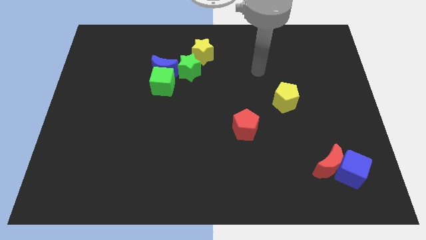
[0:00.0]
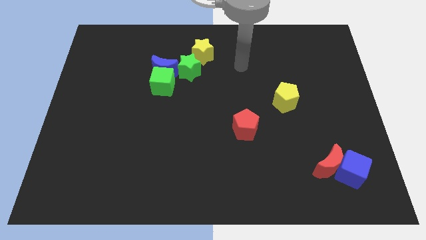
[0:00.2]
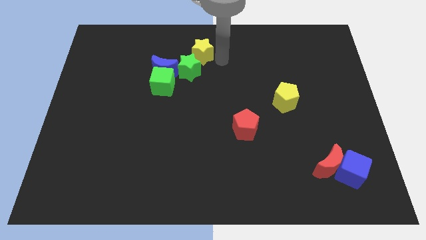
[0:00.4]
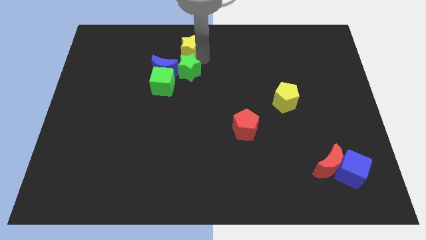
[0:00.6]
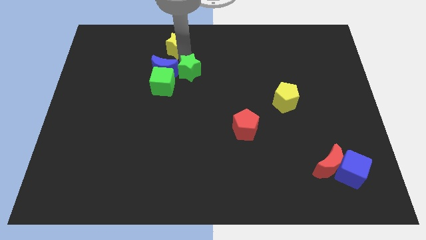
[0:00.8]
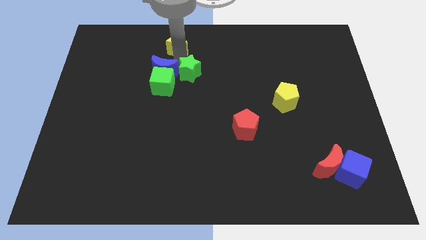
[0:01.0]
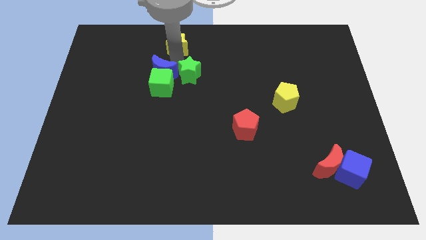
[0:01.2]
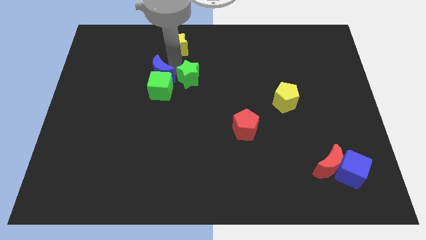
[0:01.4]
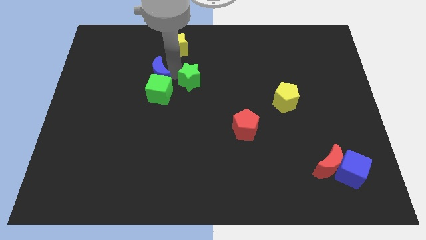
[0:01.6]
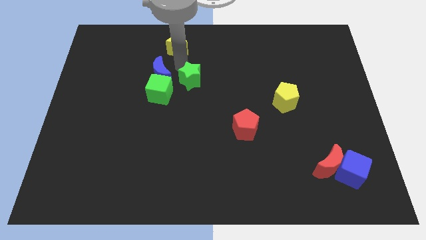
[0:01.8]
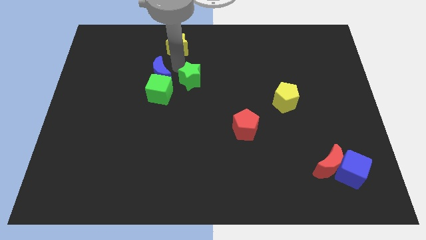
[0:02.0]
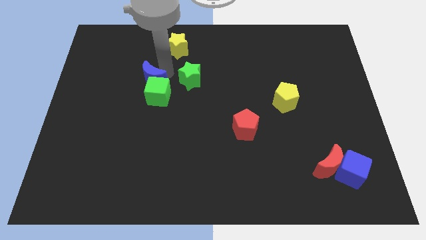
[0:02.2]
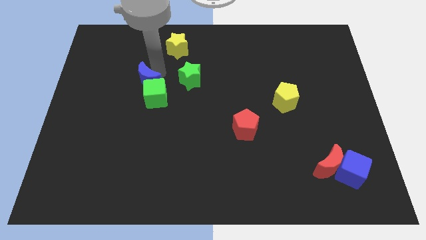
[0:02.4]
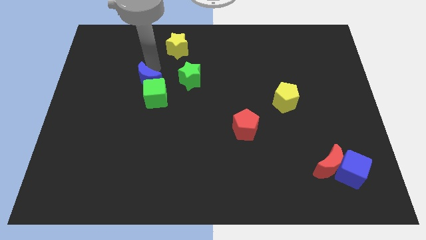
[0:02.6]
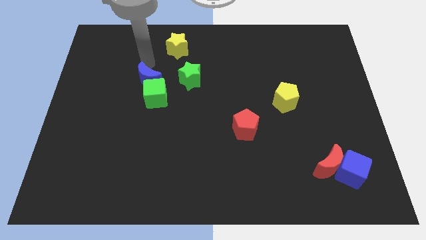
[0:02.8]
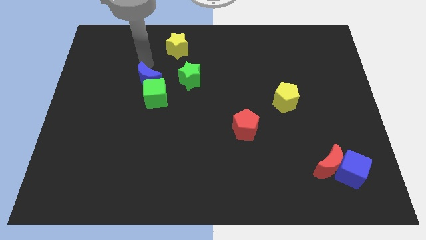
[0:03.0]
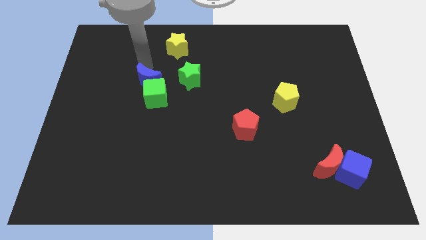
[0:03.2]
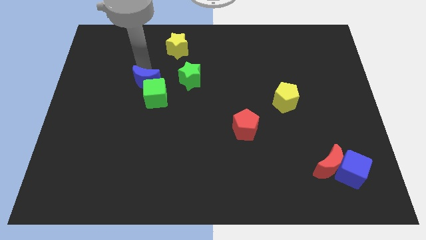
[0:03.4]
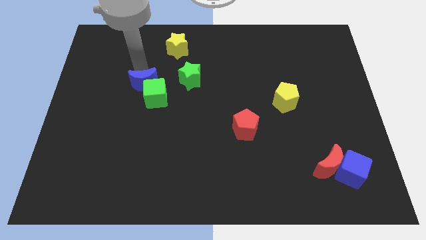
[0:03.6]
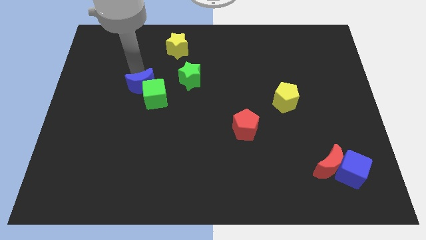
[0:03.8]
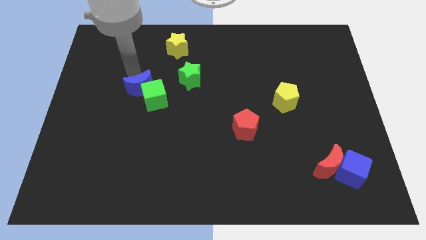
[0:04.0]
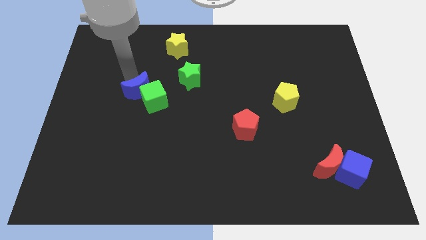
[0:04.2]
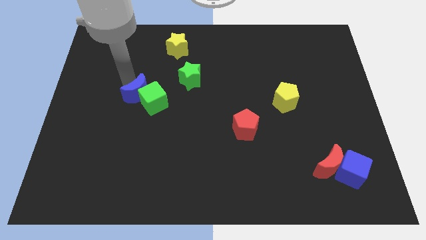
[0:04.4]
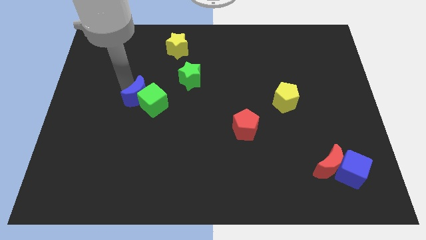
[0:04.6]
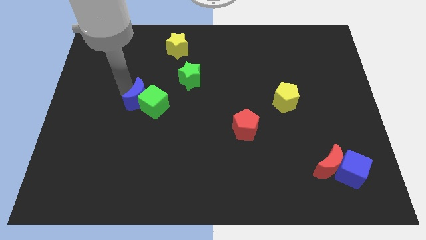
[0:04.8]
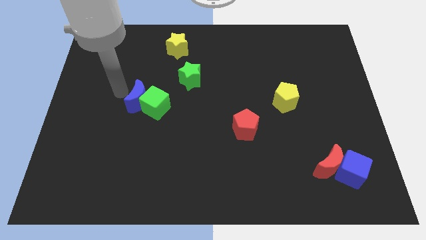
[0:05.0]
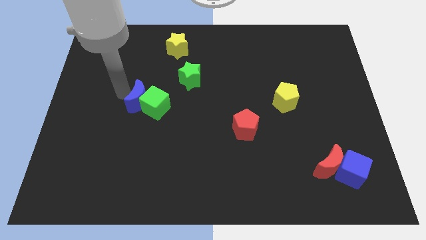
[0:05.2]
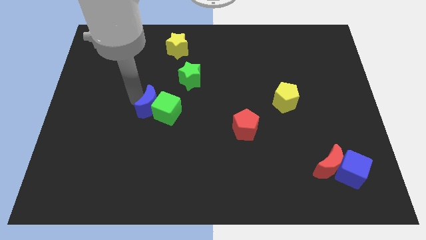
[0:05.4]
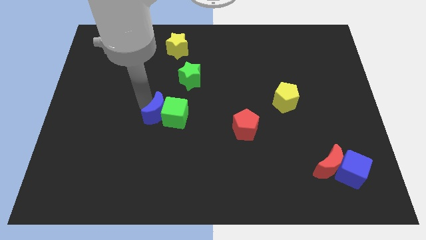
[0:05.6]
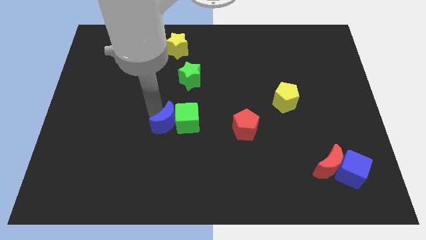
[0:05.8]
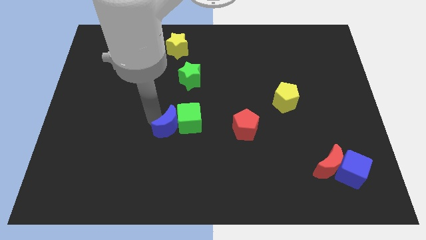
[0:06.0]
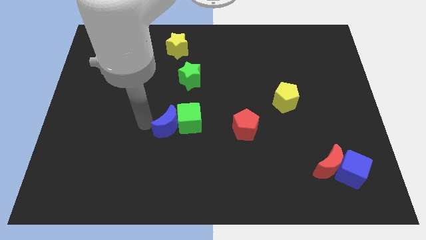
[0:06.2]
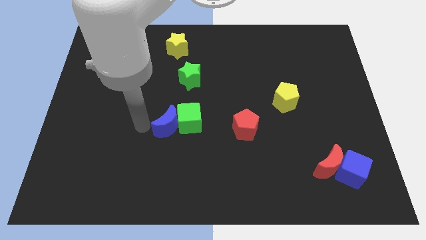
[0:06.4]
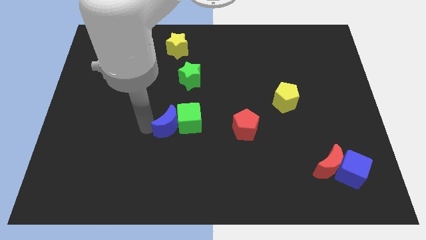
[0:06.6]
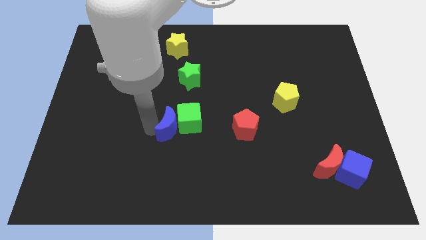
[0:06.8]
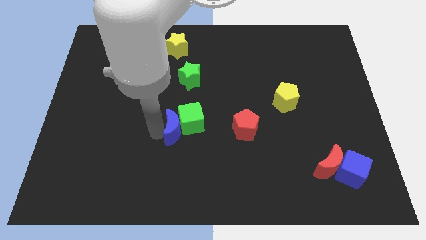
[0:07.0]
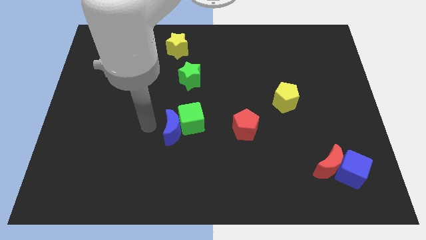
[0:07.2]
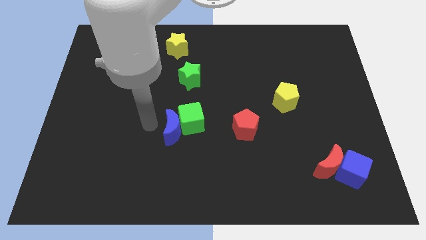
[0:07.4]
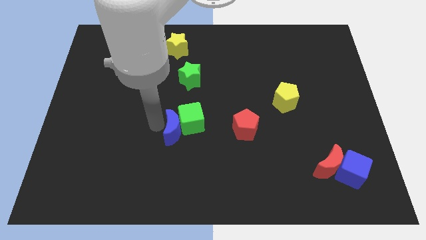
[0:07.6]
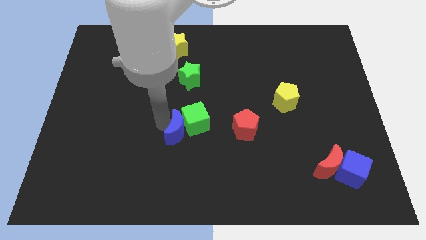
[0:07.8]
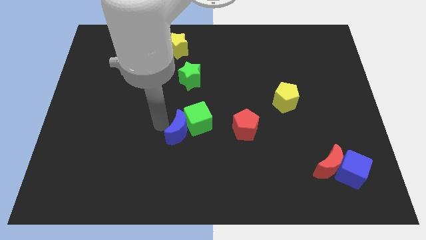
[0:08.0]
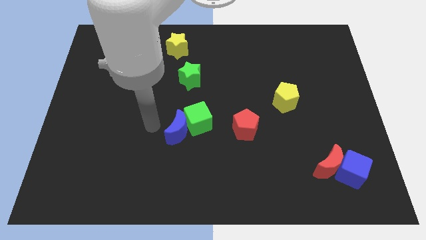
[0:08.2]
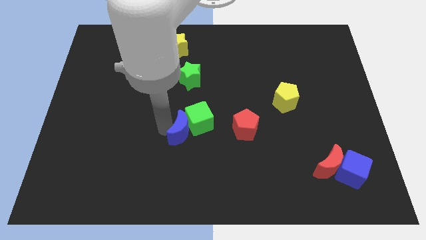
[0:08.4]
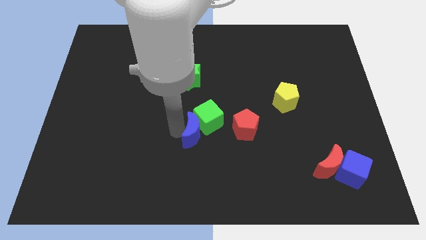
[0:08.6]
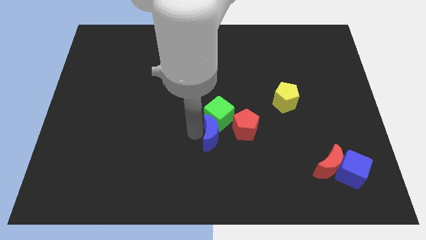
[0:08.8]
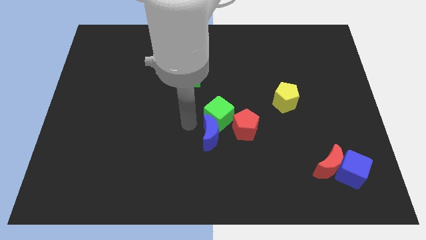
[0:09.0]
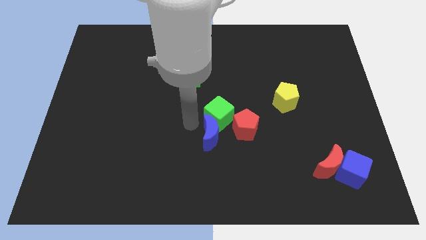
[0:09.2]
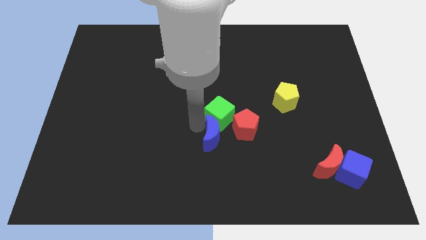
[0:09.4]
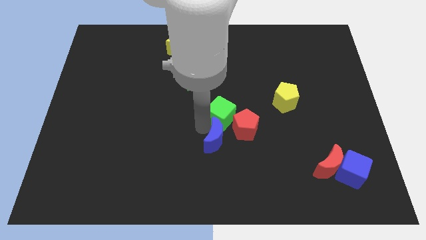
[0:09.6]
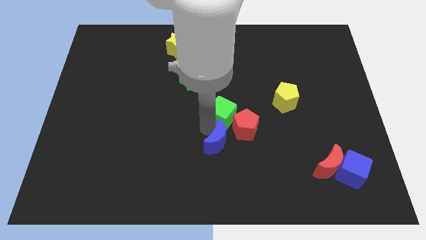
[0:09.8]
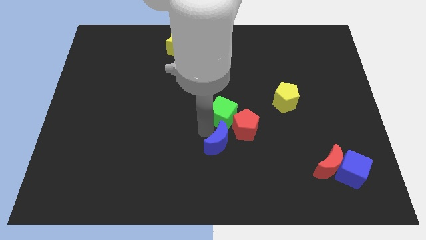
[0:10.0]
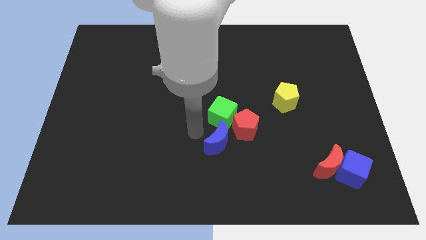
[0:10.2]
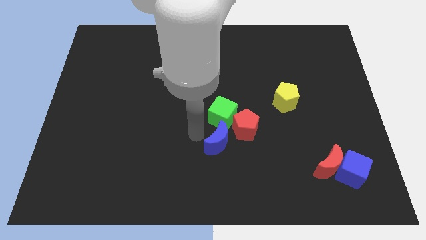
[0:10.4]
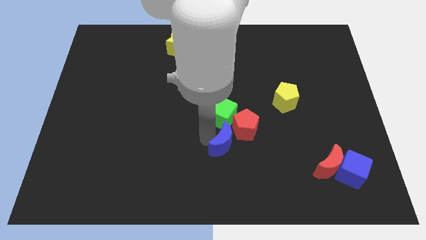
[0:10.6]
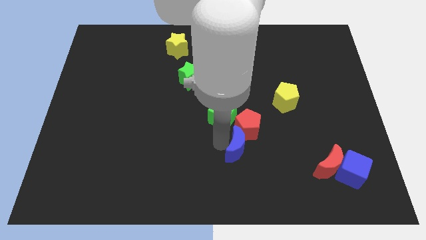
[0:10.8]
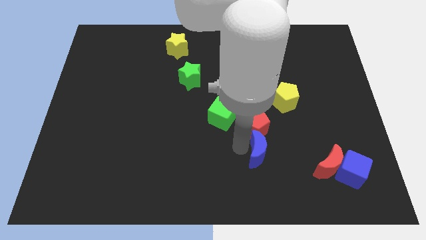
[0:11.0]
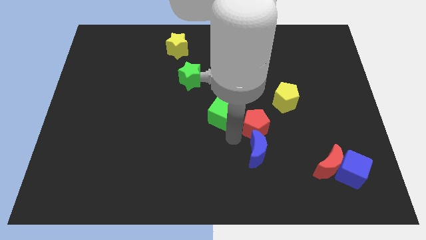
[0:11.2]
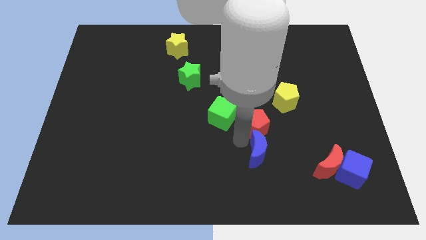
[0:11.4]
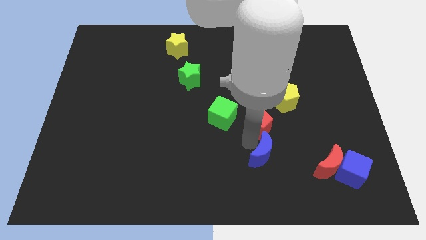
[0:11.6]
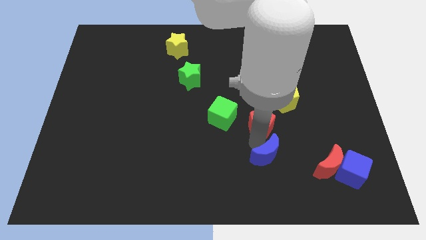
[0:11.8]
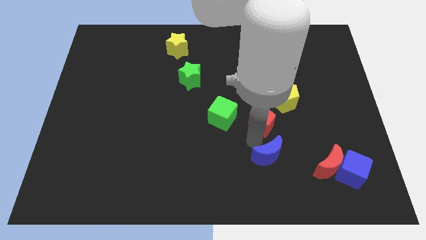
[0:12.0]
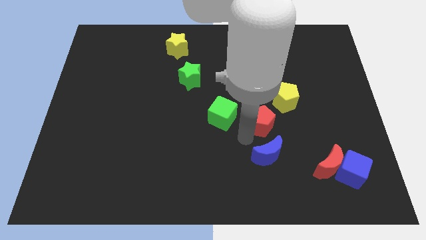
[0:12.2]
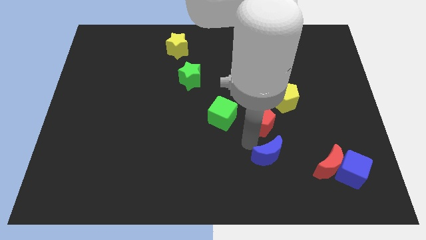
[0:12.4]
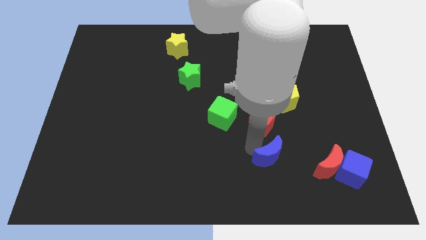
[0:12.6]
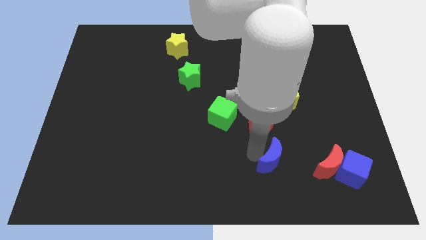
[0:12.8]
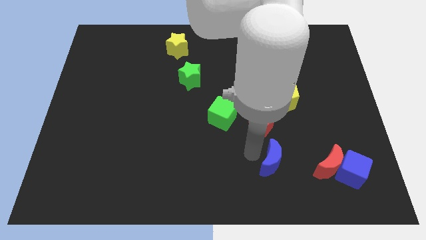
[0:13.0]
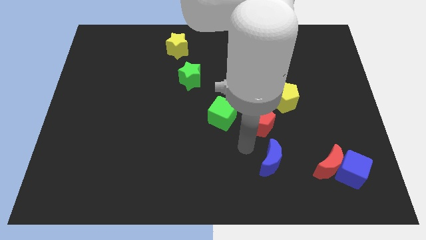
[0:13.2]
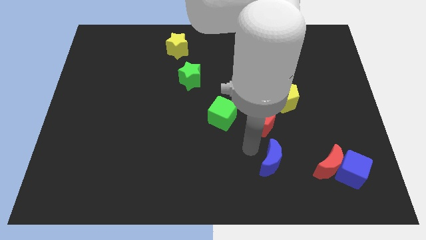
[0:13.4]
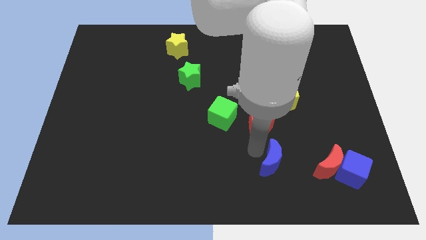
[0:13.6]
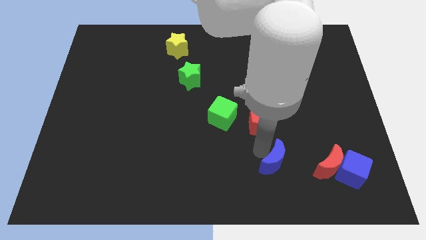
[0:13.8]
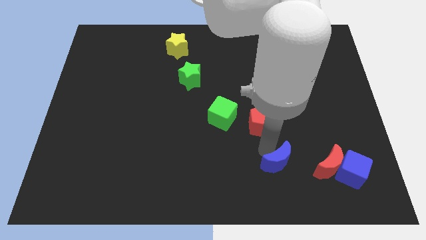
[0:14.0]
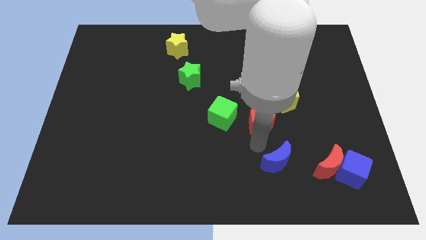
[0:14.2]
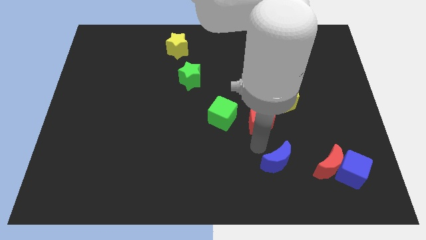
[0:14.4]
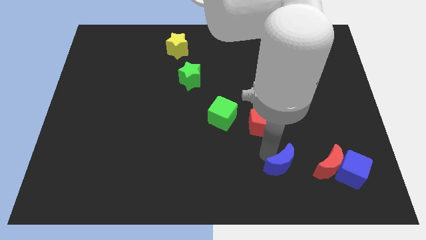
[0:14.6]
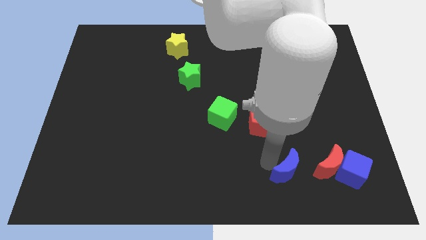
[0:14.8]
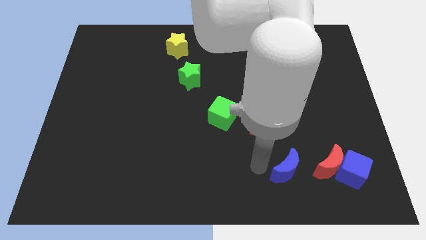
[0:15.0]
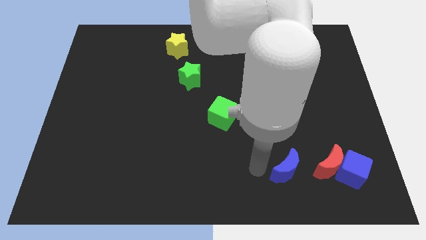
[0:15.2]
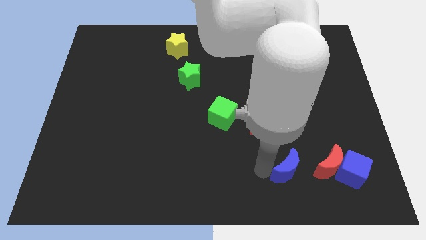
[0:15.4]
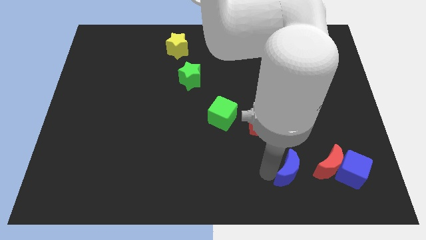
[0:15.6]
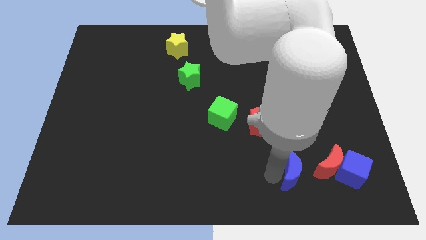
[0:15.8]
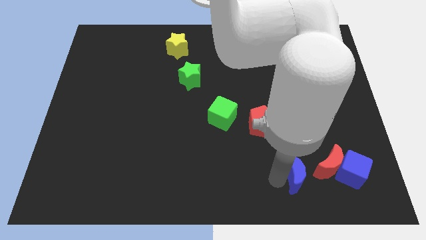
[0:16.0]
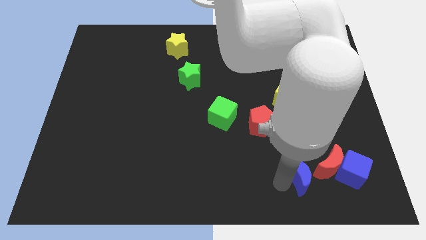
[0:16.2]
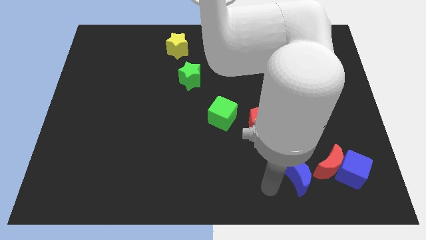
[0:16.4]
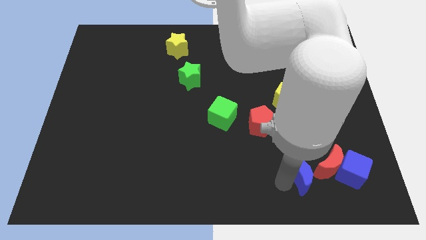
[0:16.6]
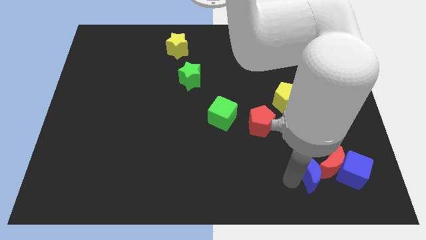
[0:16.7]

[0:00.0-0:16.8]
move the blue moon to the red moon
